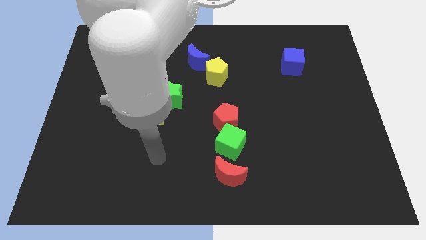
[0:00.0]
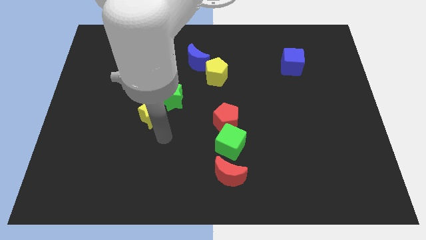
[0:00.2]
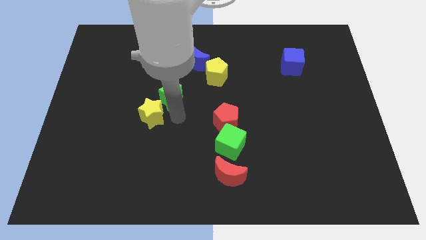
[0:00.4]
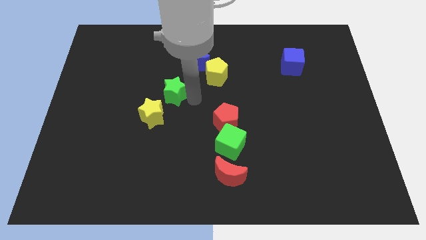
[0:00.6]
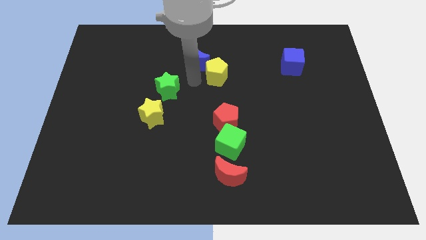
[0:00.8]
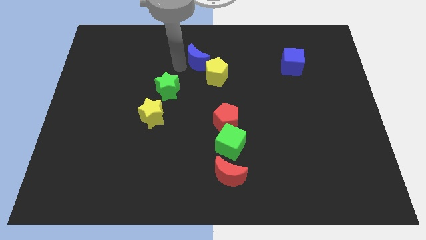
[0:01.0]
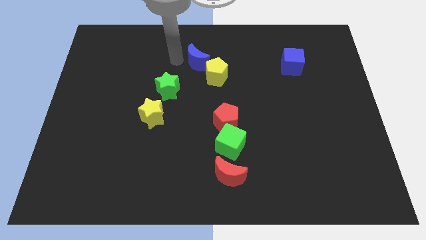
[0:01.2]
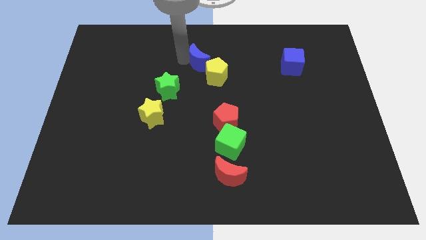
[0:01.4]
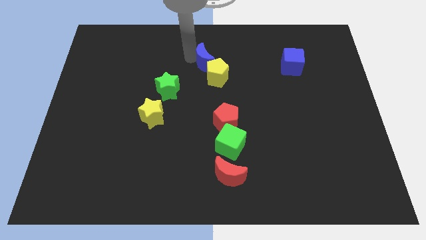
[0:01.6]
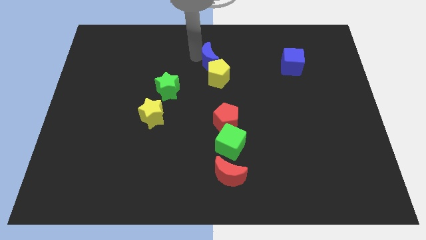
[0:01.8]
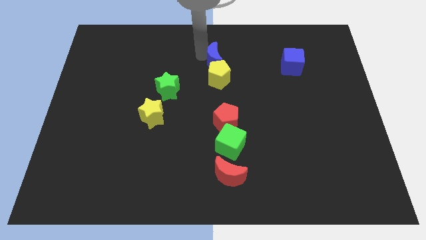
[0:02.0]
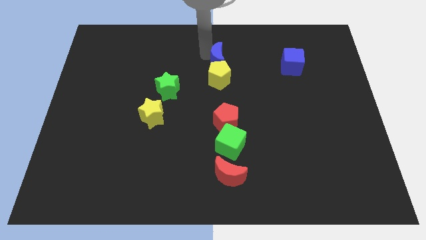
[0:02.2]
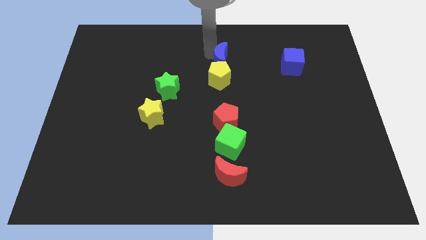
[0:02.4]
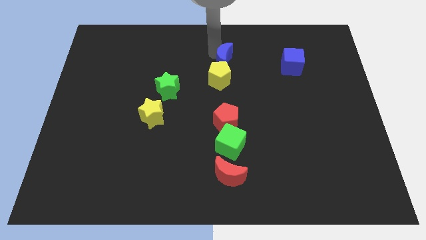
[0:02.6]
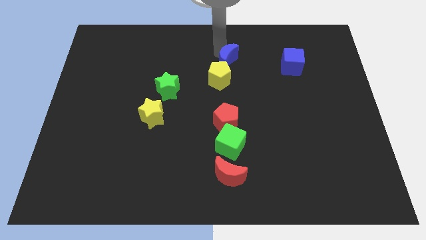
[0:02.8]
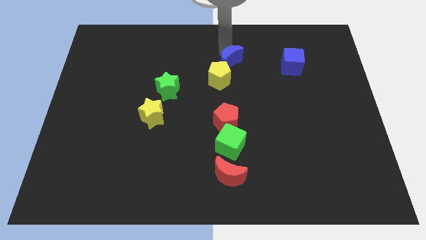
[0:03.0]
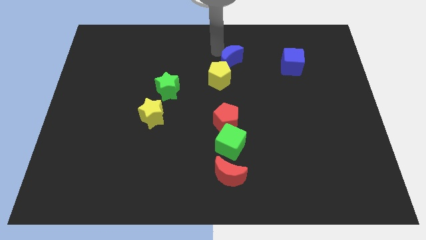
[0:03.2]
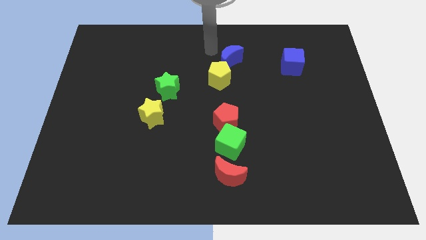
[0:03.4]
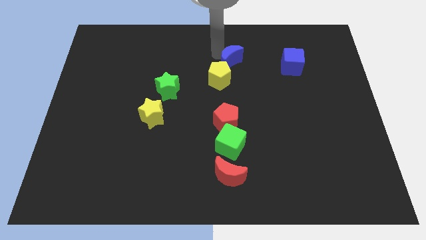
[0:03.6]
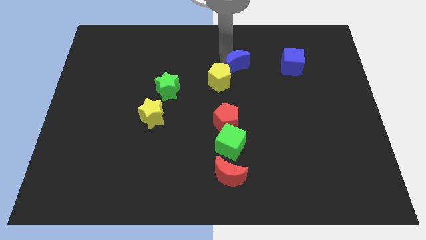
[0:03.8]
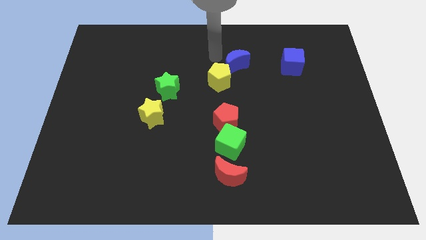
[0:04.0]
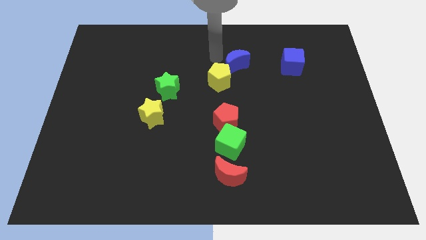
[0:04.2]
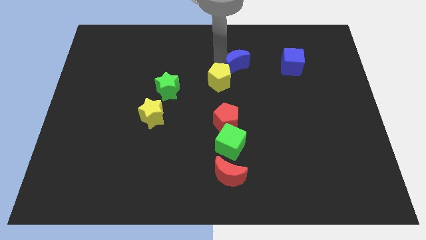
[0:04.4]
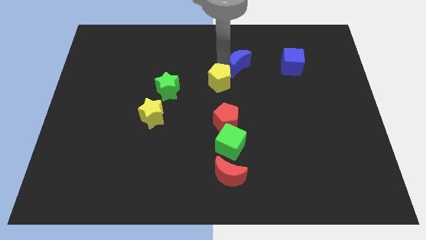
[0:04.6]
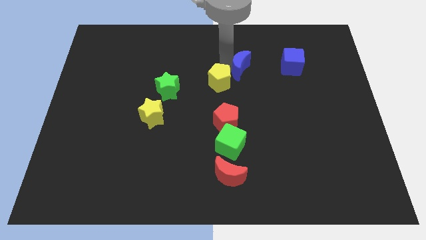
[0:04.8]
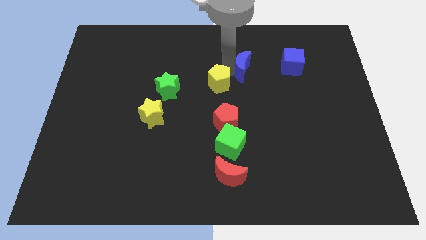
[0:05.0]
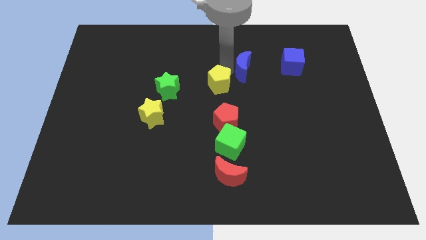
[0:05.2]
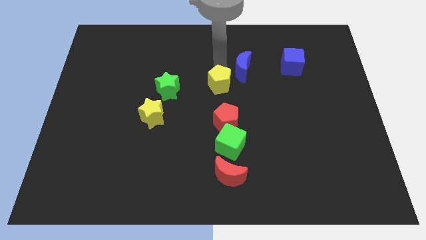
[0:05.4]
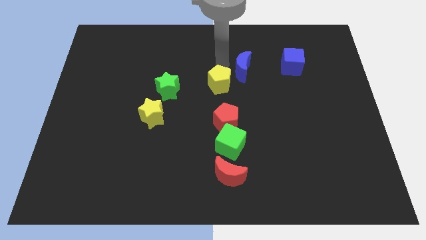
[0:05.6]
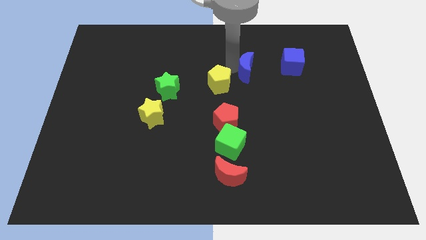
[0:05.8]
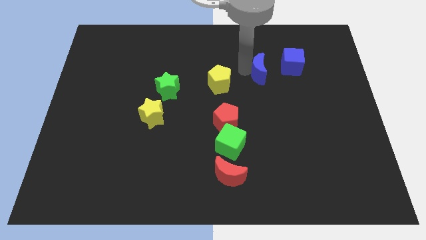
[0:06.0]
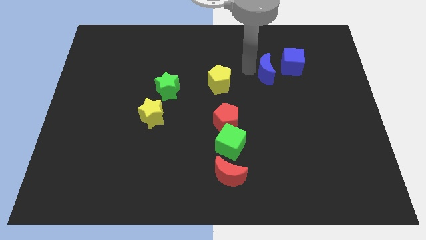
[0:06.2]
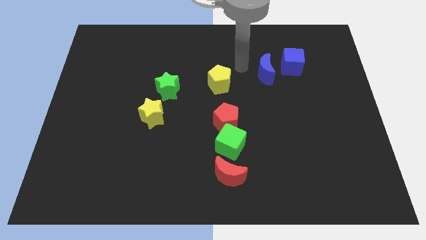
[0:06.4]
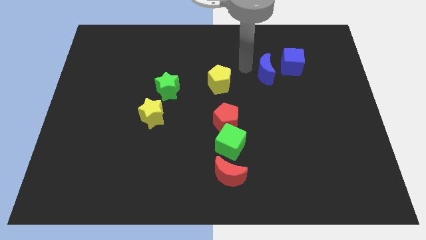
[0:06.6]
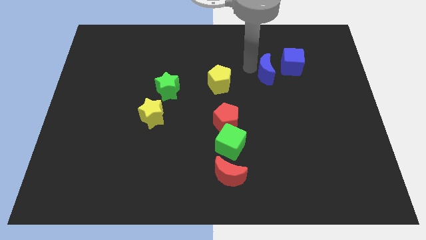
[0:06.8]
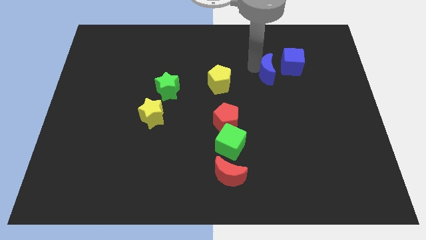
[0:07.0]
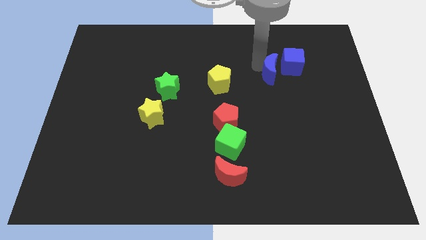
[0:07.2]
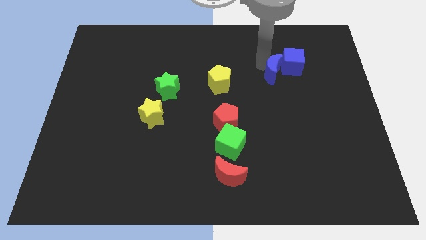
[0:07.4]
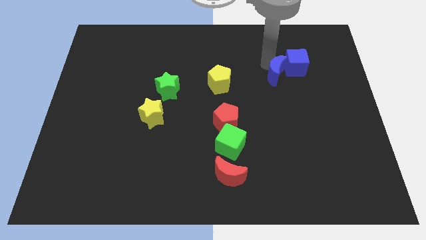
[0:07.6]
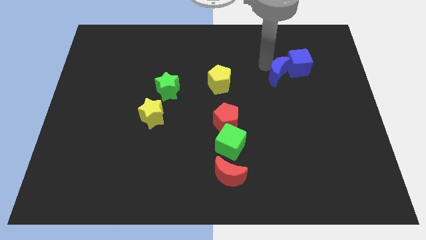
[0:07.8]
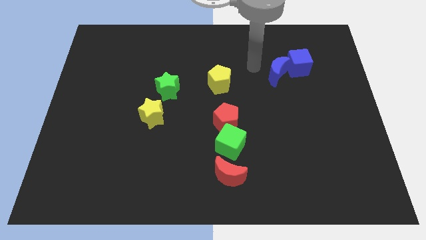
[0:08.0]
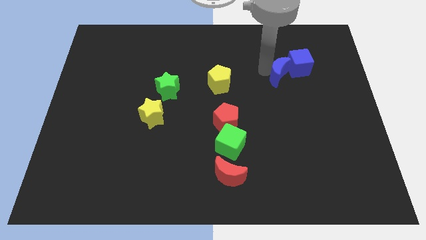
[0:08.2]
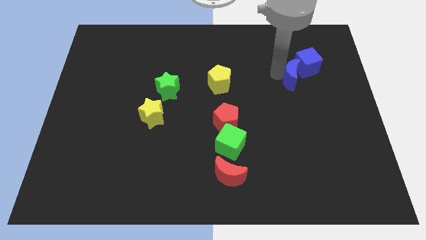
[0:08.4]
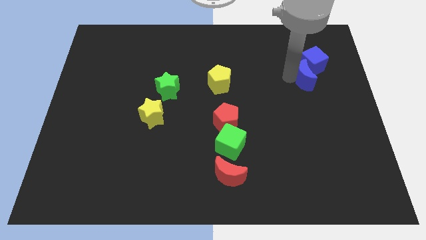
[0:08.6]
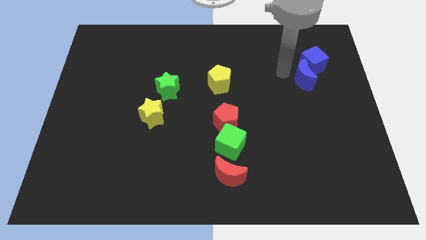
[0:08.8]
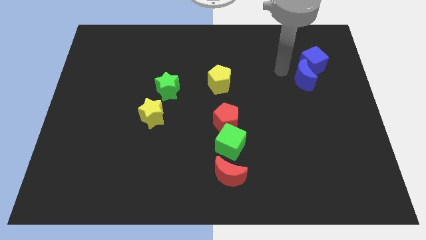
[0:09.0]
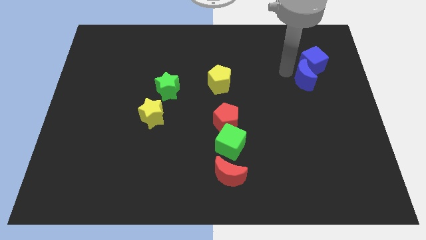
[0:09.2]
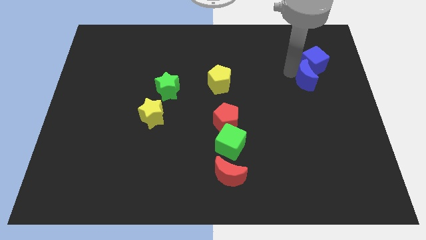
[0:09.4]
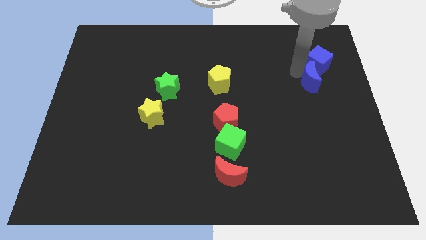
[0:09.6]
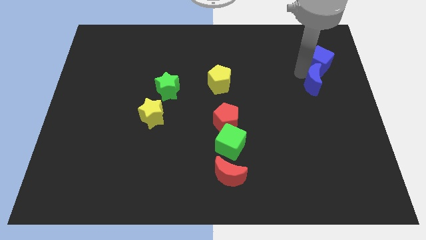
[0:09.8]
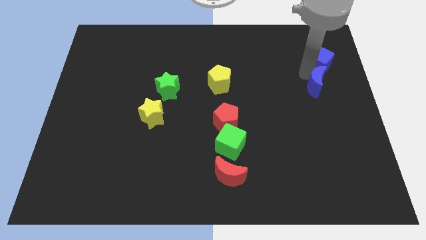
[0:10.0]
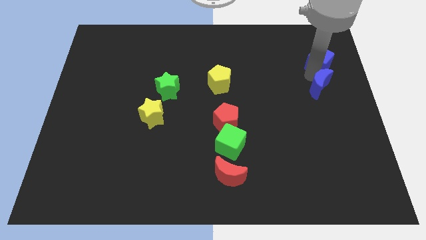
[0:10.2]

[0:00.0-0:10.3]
slide the blue moon to the right side

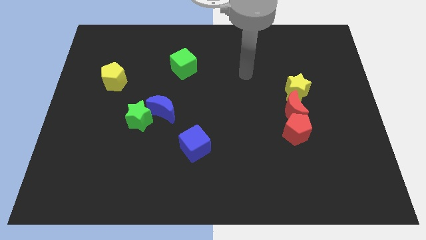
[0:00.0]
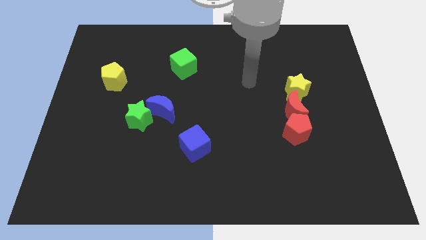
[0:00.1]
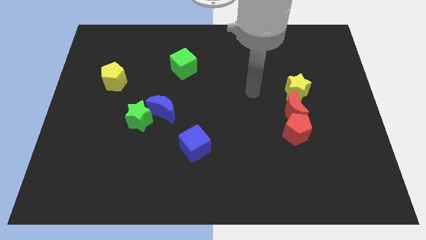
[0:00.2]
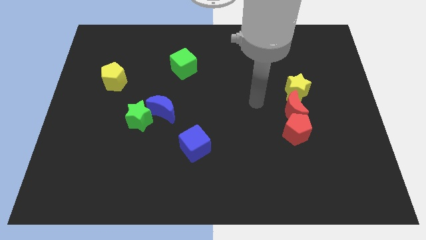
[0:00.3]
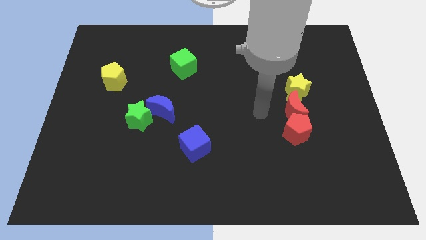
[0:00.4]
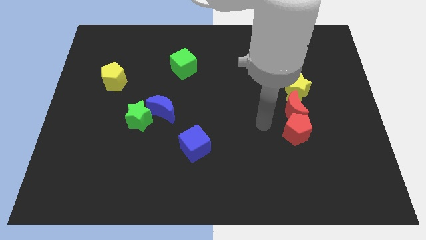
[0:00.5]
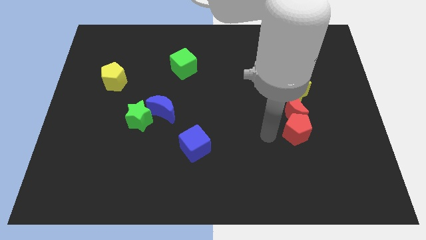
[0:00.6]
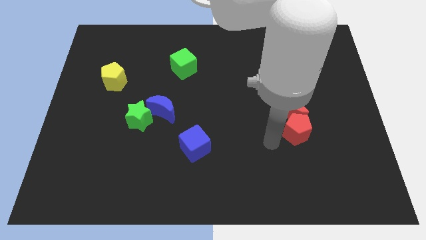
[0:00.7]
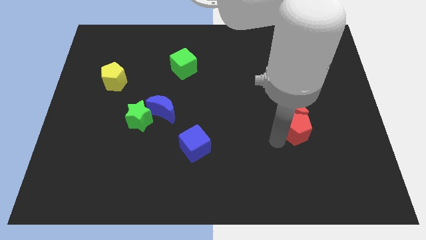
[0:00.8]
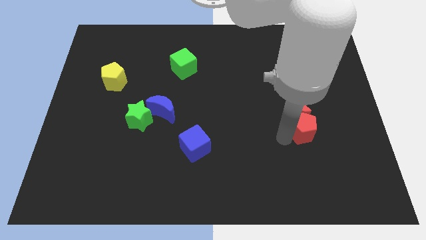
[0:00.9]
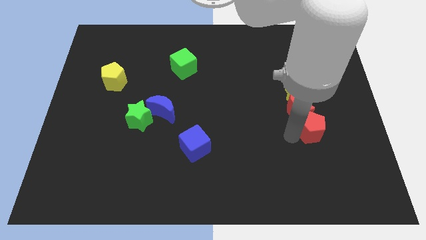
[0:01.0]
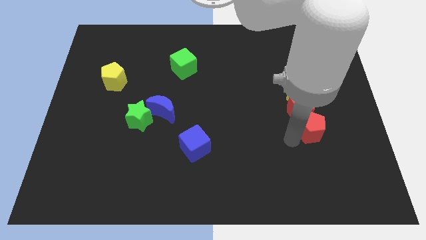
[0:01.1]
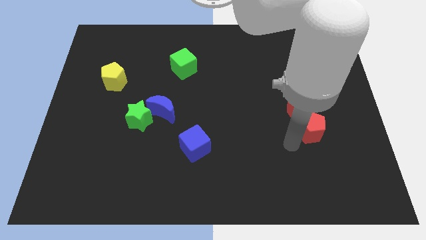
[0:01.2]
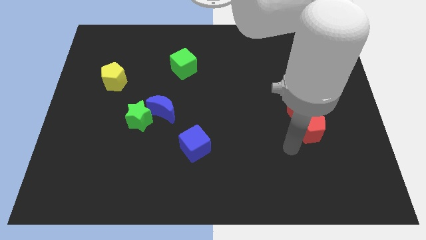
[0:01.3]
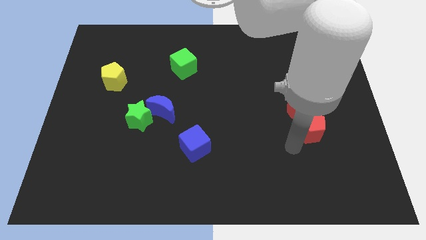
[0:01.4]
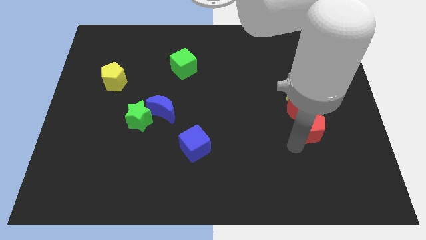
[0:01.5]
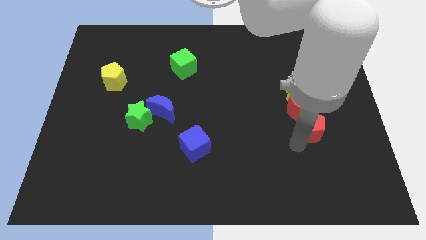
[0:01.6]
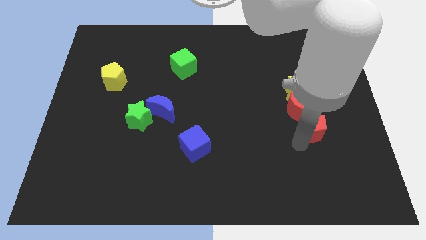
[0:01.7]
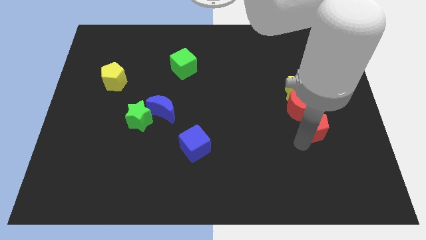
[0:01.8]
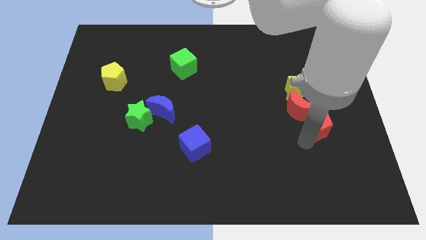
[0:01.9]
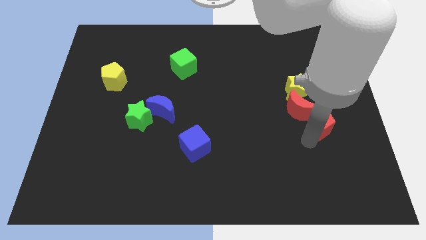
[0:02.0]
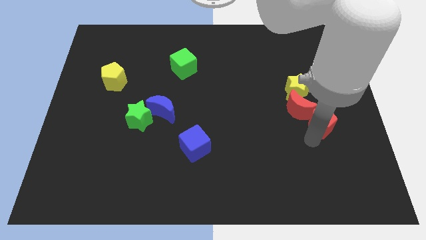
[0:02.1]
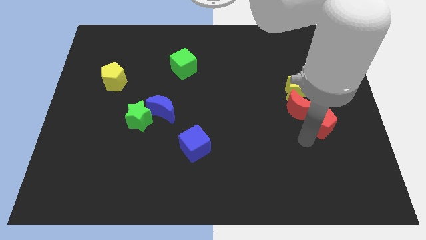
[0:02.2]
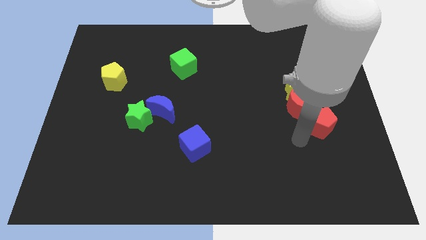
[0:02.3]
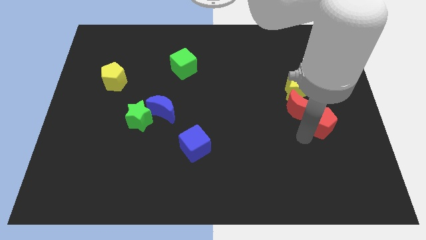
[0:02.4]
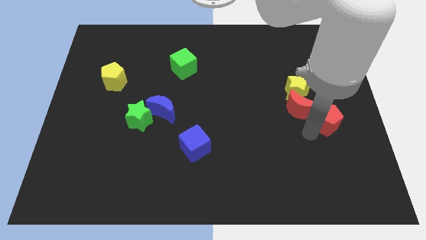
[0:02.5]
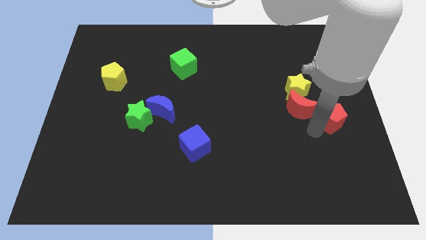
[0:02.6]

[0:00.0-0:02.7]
push the red pentagon to the center right
